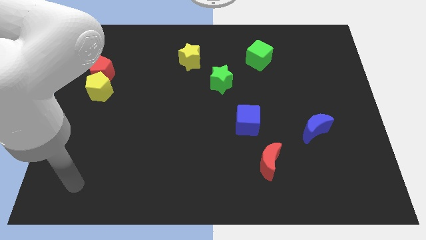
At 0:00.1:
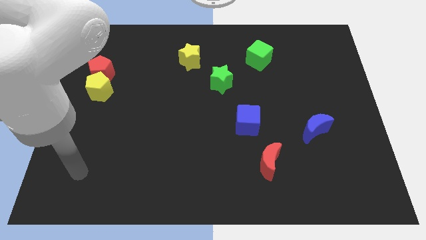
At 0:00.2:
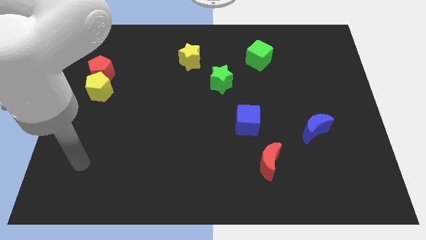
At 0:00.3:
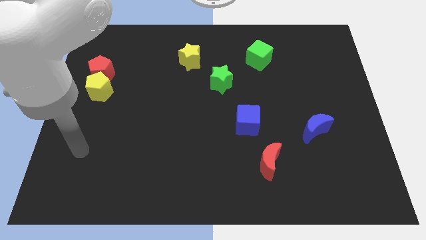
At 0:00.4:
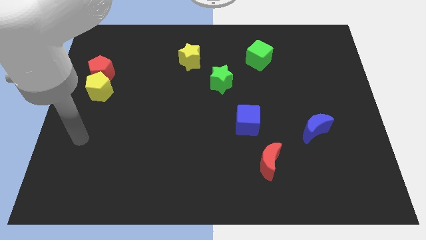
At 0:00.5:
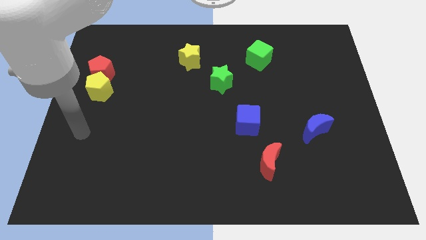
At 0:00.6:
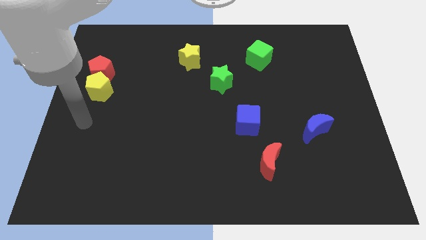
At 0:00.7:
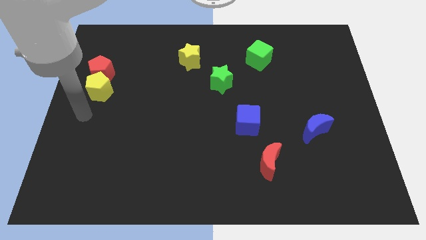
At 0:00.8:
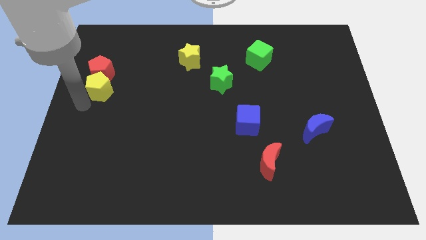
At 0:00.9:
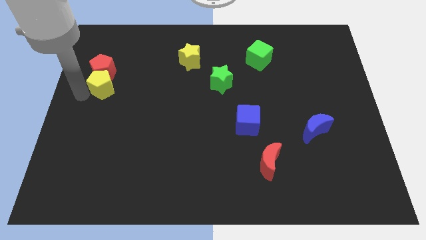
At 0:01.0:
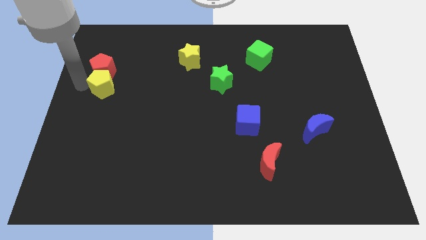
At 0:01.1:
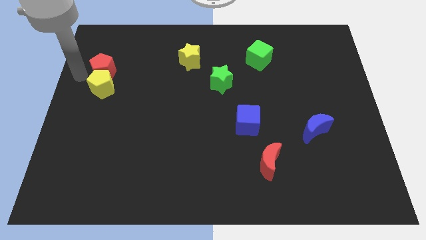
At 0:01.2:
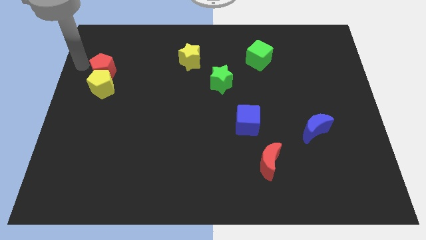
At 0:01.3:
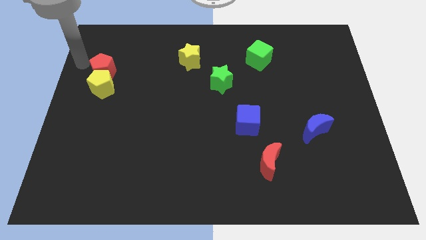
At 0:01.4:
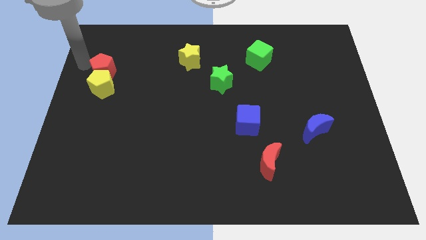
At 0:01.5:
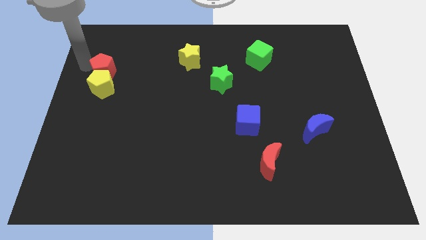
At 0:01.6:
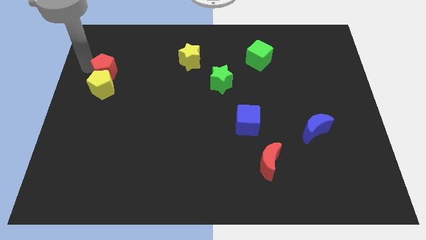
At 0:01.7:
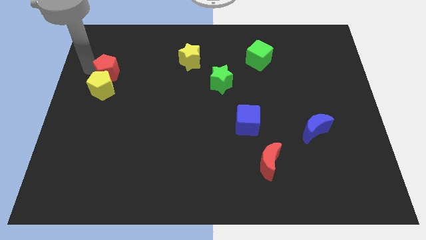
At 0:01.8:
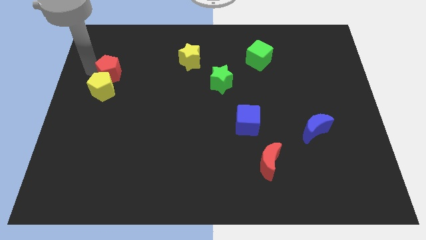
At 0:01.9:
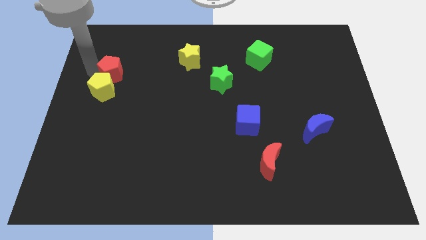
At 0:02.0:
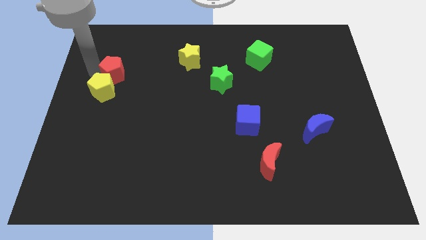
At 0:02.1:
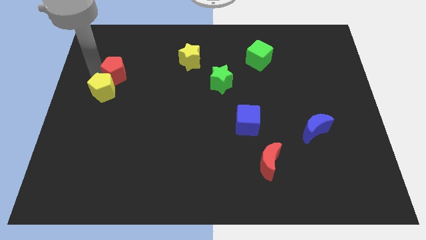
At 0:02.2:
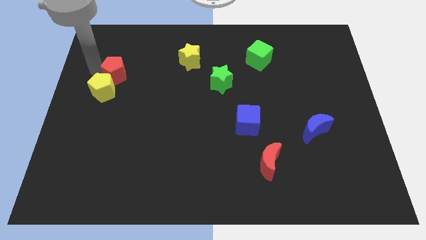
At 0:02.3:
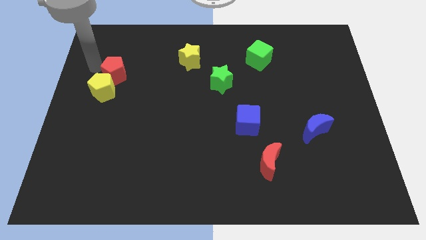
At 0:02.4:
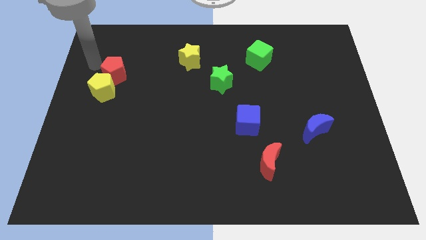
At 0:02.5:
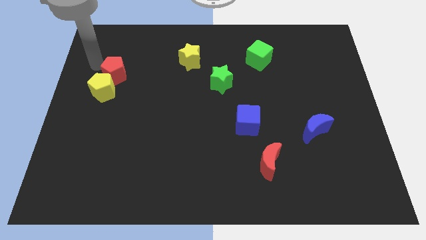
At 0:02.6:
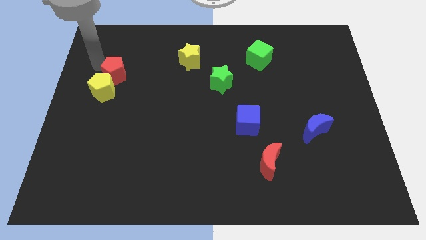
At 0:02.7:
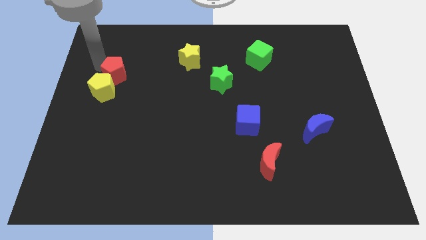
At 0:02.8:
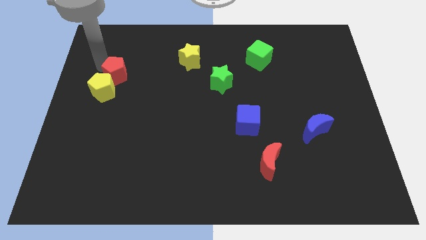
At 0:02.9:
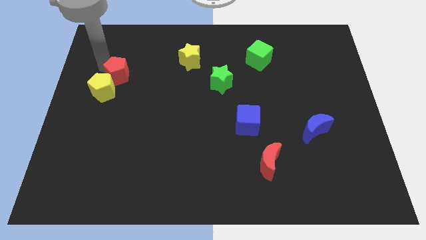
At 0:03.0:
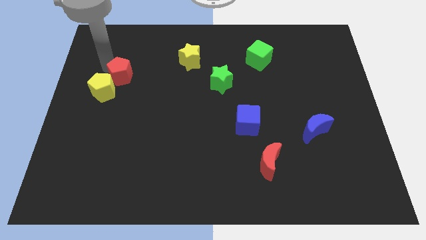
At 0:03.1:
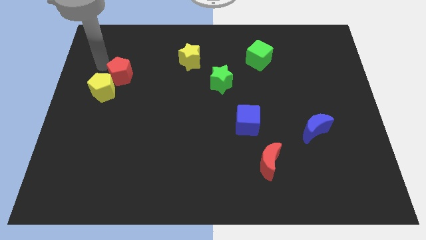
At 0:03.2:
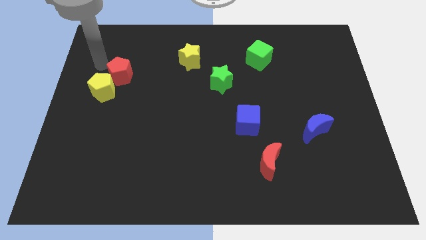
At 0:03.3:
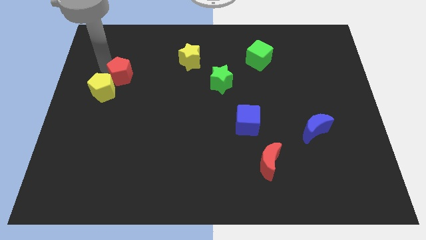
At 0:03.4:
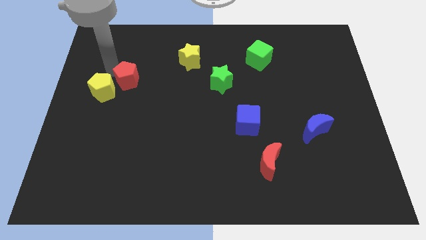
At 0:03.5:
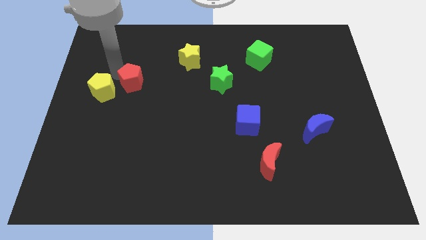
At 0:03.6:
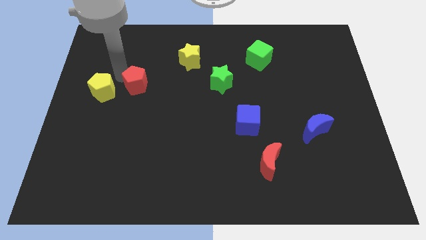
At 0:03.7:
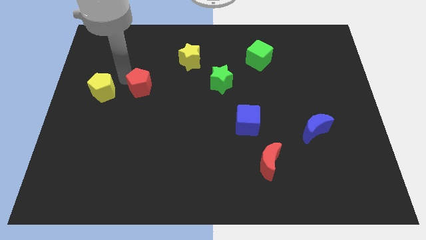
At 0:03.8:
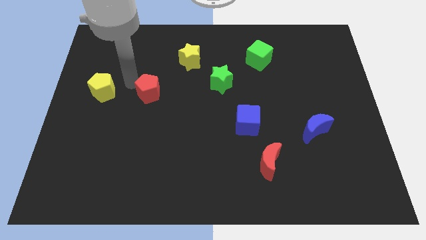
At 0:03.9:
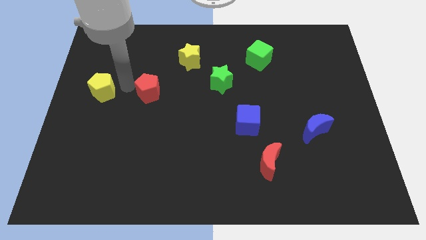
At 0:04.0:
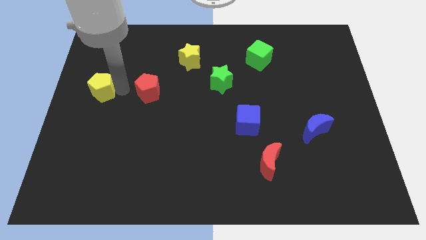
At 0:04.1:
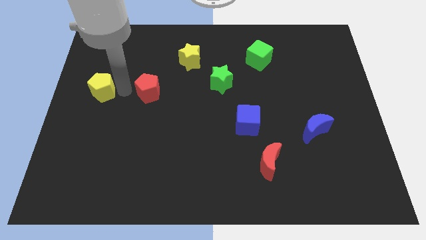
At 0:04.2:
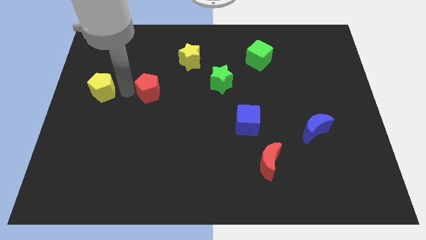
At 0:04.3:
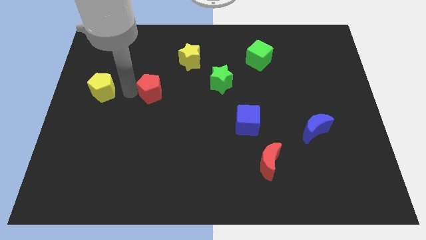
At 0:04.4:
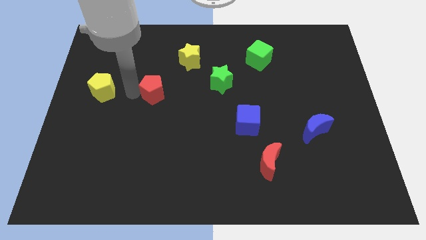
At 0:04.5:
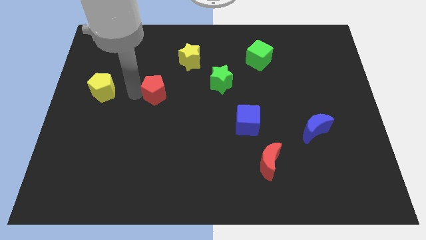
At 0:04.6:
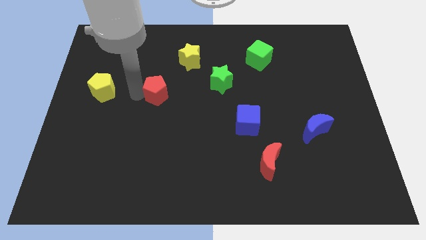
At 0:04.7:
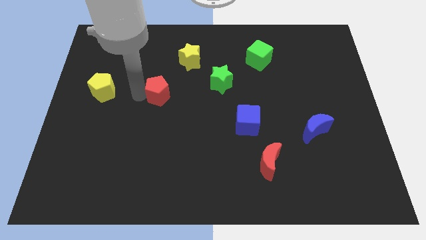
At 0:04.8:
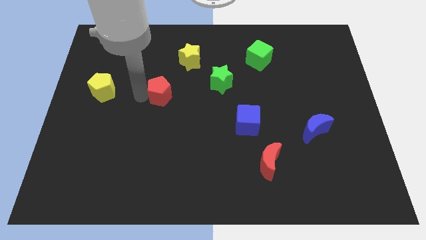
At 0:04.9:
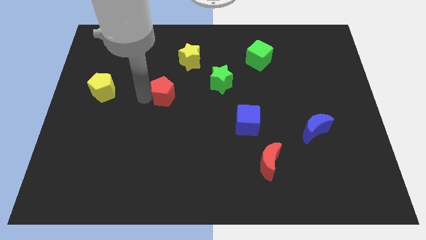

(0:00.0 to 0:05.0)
slide the red pentagon to the center of the board

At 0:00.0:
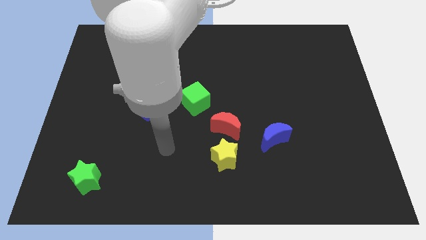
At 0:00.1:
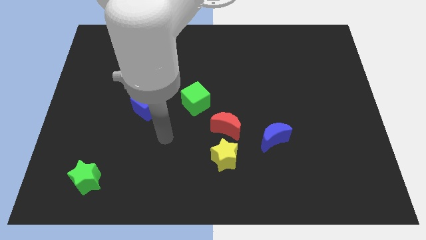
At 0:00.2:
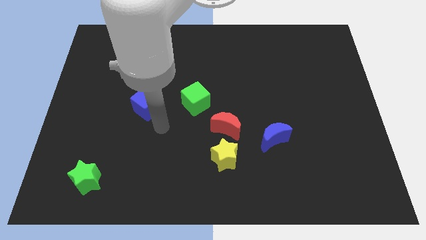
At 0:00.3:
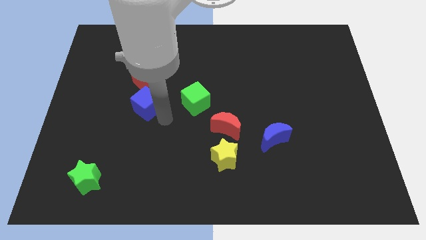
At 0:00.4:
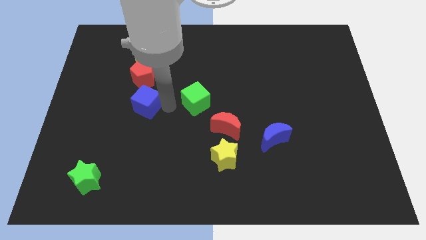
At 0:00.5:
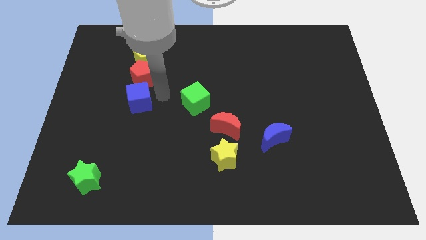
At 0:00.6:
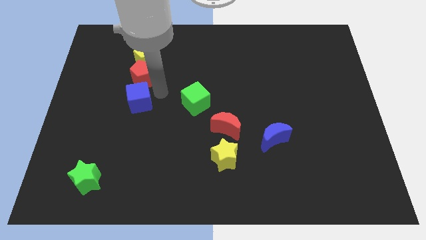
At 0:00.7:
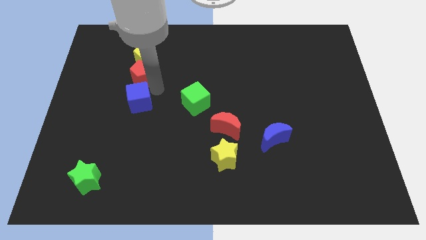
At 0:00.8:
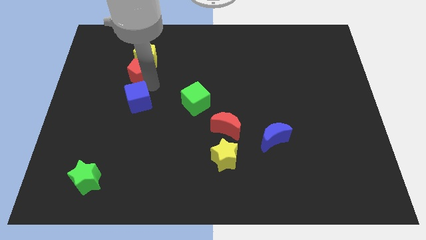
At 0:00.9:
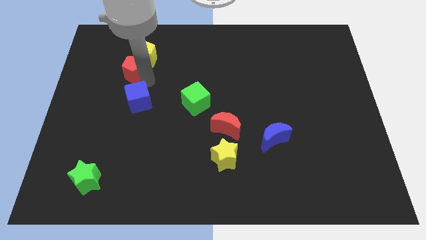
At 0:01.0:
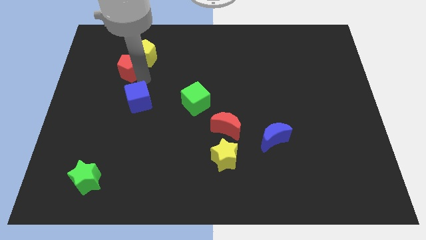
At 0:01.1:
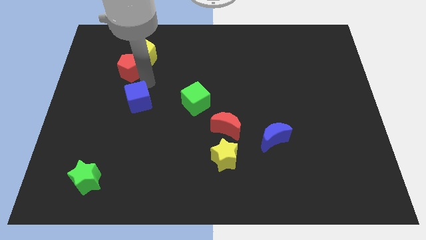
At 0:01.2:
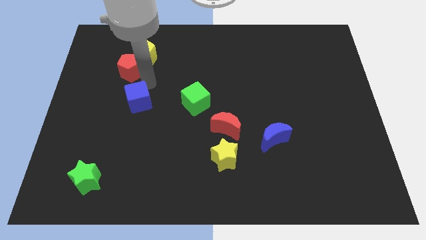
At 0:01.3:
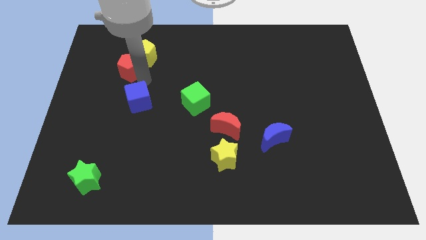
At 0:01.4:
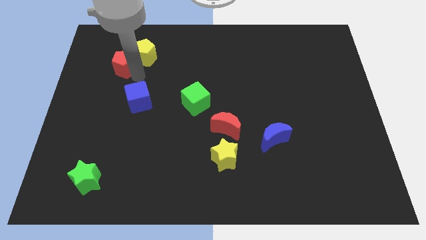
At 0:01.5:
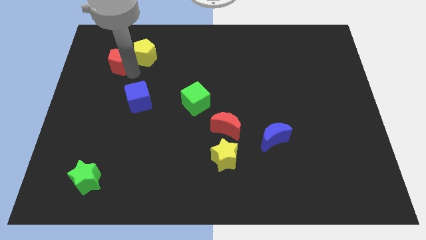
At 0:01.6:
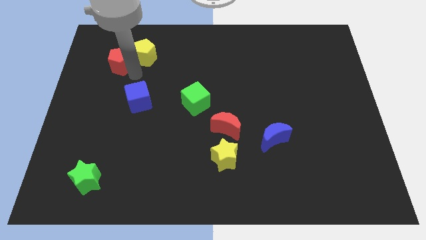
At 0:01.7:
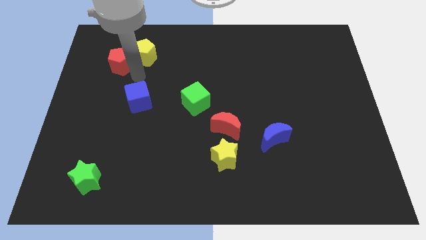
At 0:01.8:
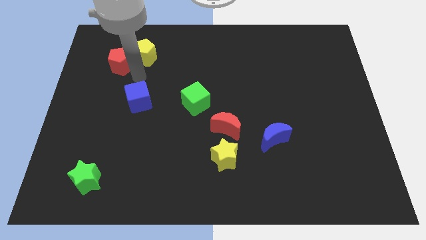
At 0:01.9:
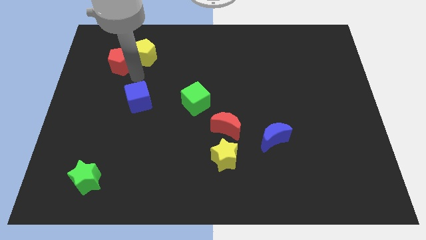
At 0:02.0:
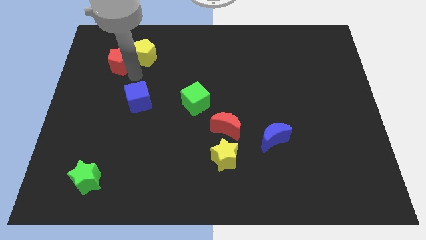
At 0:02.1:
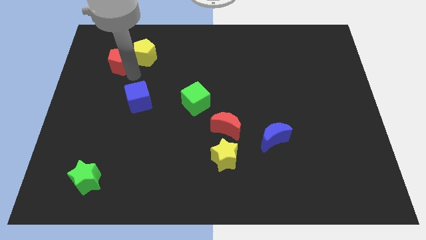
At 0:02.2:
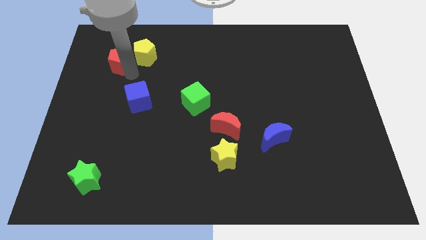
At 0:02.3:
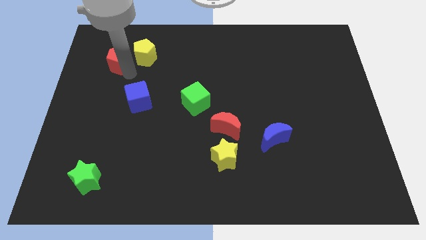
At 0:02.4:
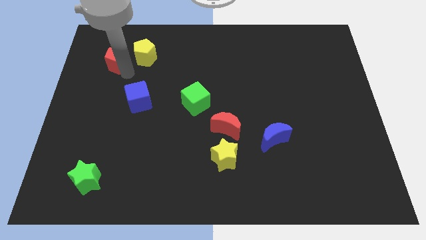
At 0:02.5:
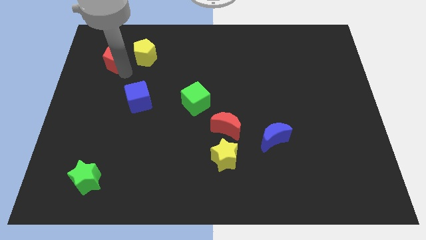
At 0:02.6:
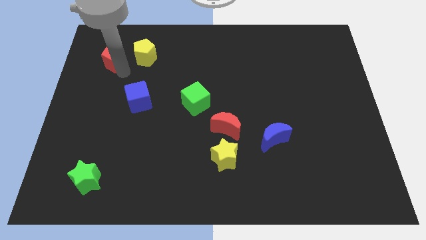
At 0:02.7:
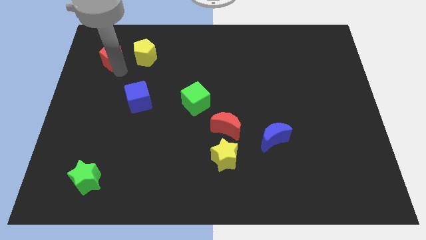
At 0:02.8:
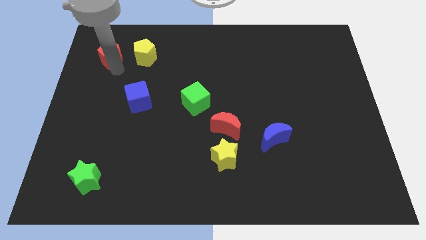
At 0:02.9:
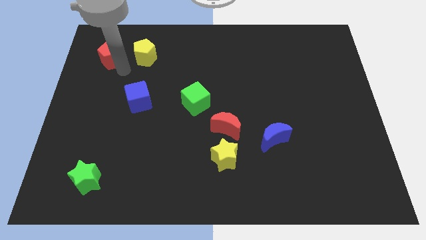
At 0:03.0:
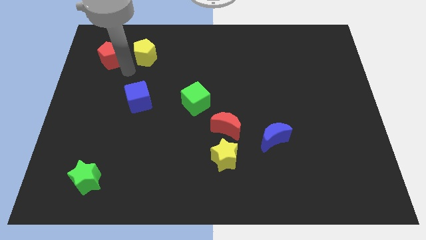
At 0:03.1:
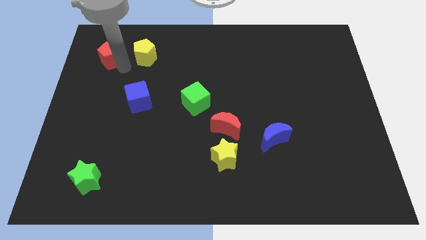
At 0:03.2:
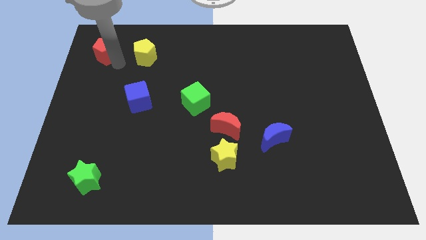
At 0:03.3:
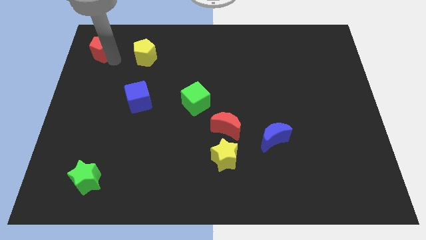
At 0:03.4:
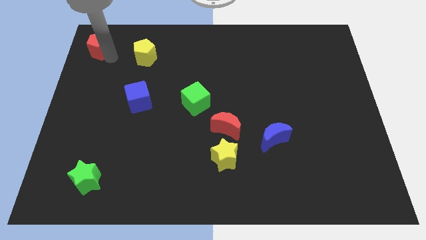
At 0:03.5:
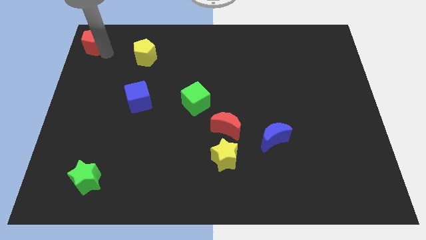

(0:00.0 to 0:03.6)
push the red pentagon to the top left of the board
